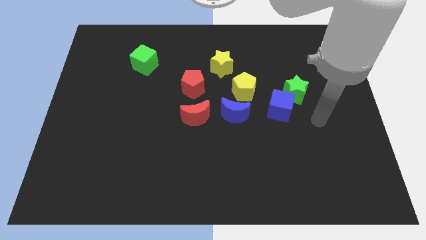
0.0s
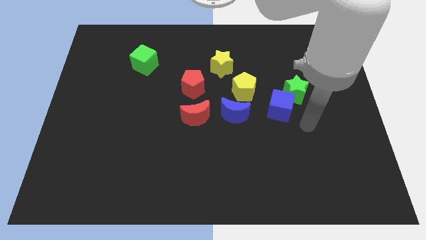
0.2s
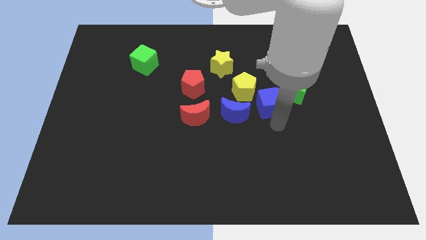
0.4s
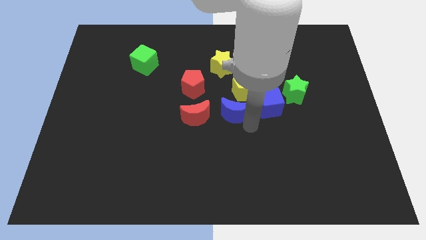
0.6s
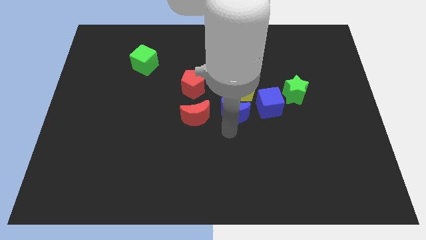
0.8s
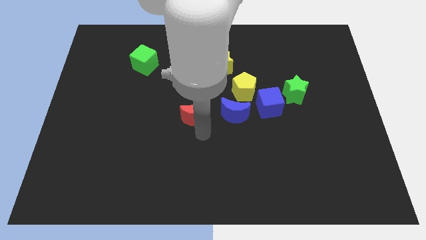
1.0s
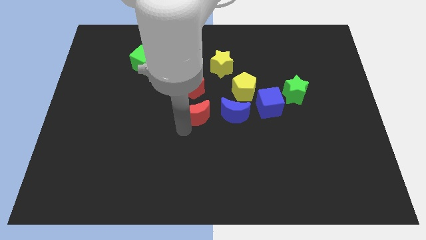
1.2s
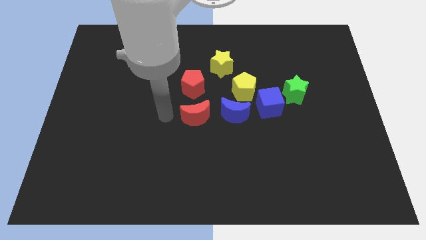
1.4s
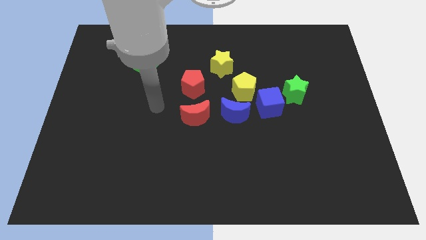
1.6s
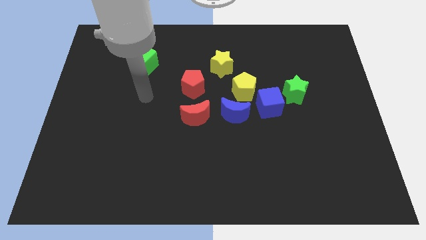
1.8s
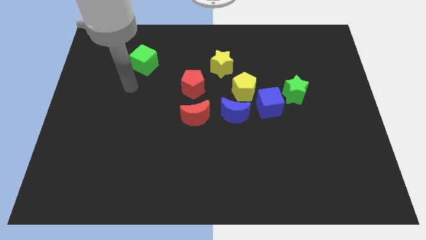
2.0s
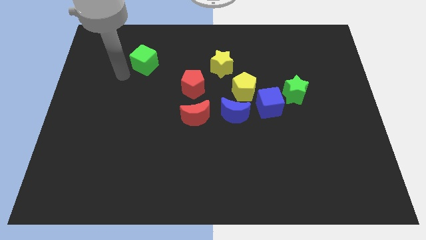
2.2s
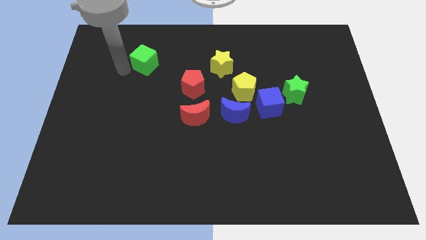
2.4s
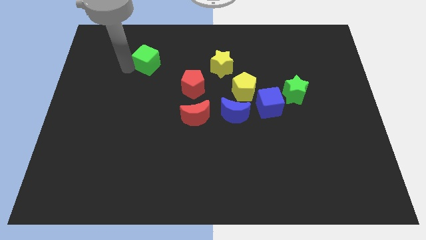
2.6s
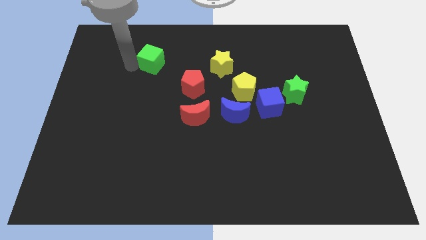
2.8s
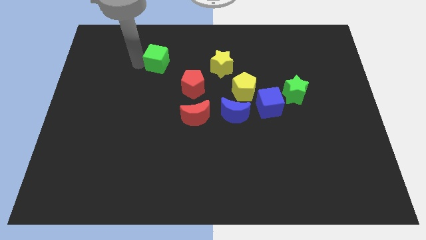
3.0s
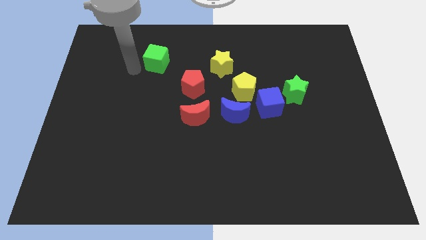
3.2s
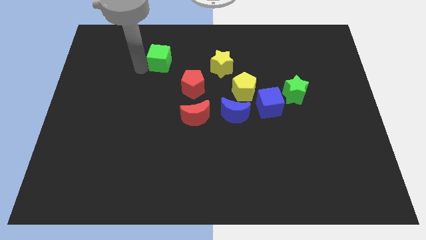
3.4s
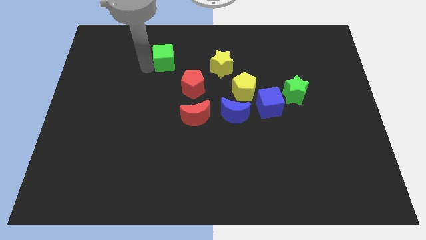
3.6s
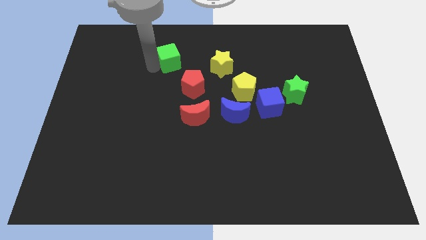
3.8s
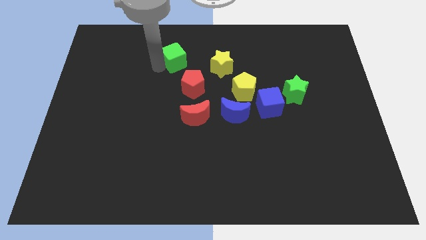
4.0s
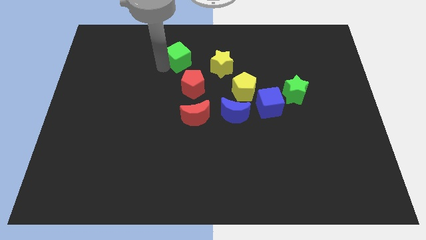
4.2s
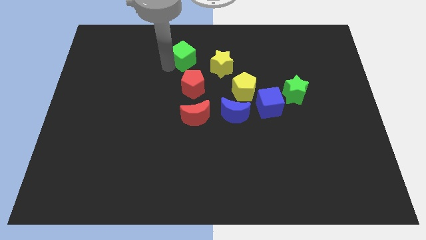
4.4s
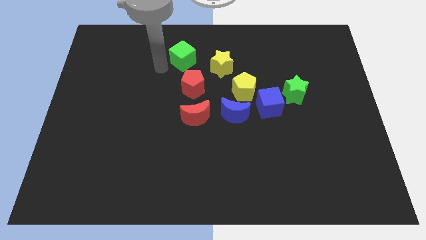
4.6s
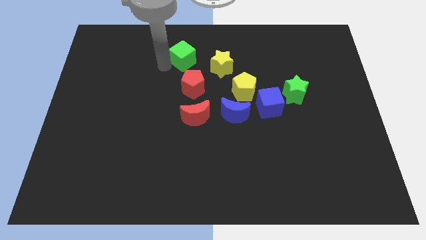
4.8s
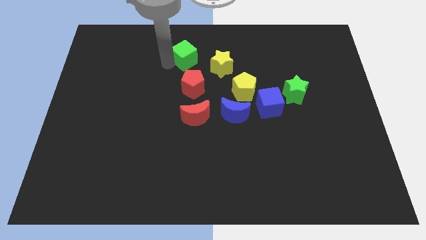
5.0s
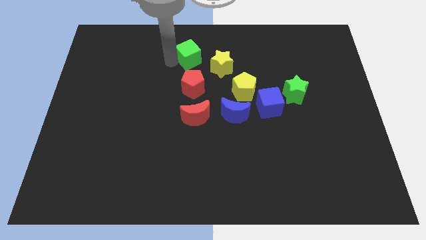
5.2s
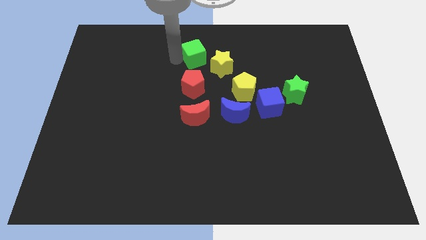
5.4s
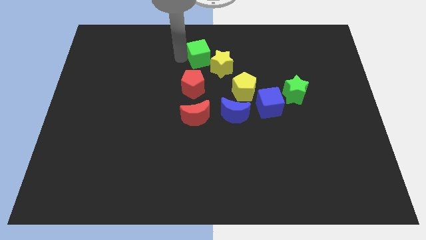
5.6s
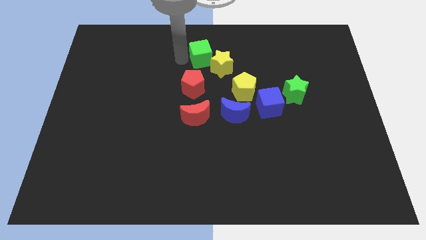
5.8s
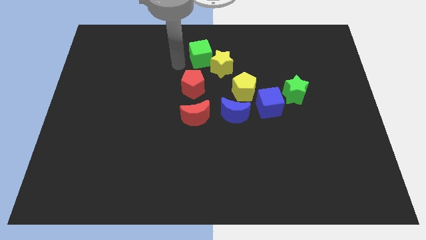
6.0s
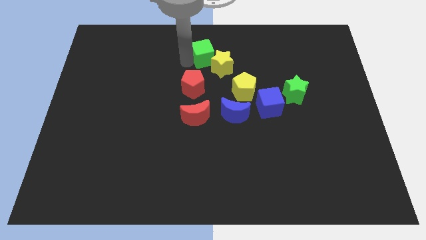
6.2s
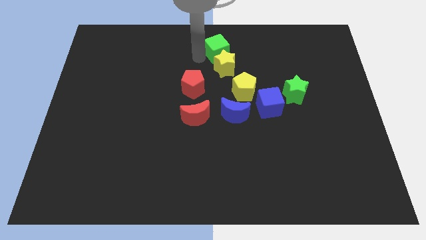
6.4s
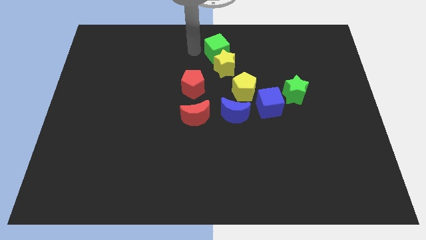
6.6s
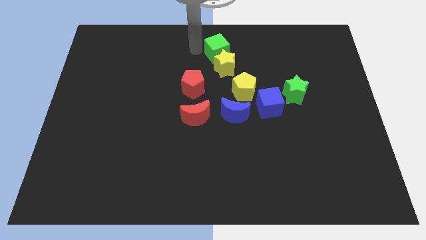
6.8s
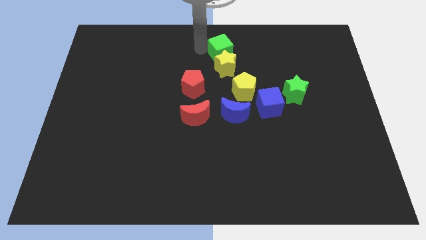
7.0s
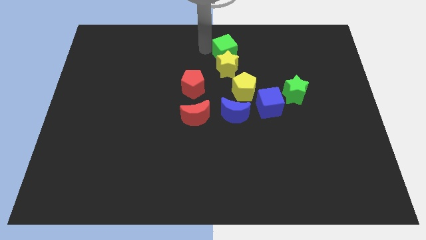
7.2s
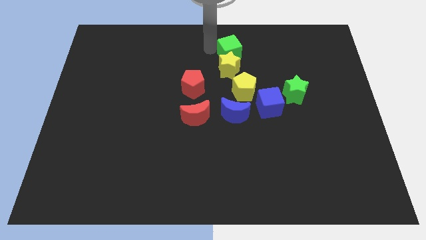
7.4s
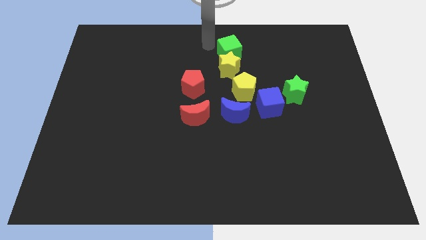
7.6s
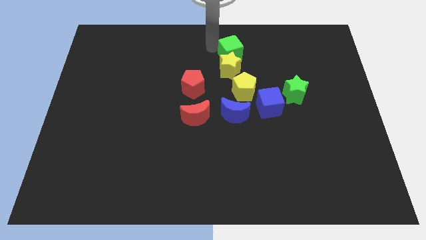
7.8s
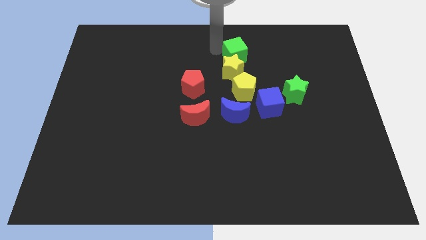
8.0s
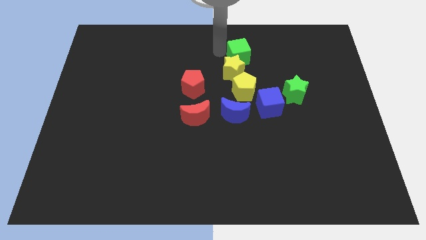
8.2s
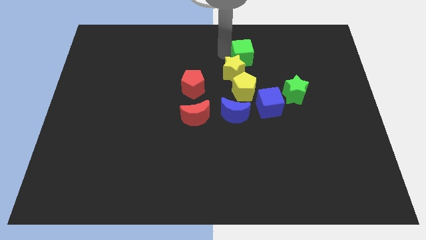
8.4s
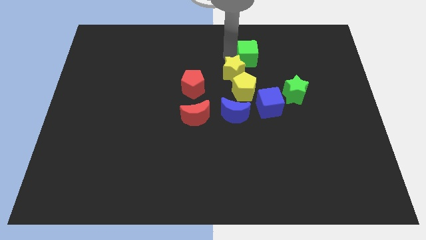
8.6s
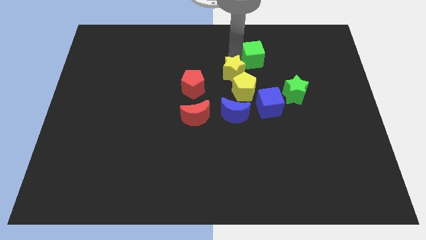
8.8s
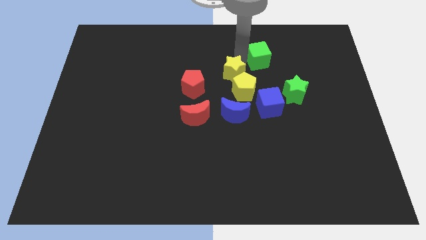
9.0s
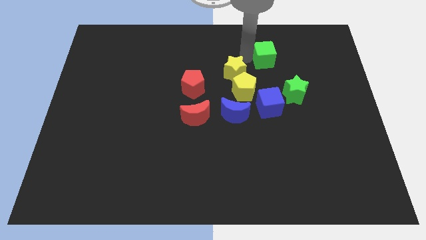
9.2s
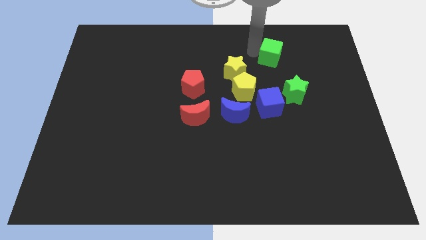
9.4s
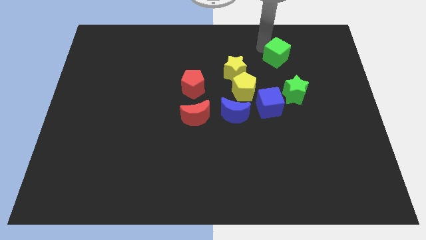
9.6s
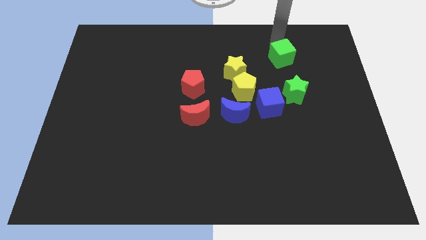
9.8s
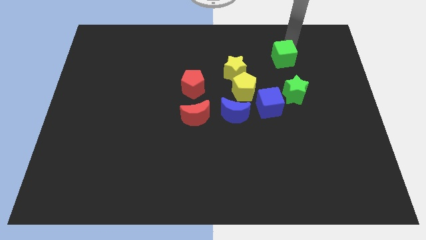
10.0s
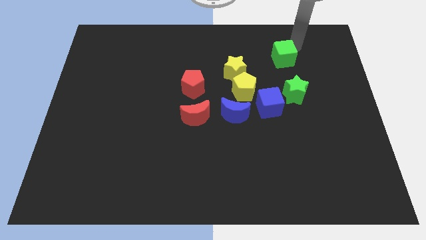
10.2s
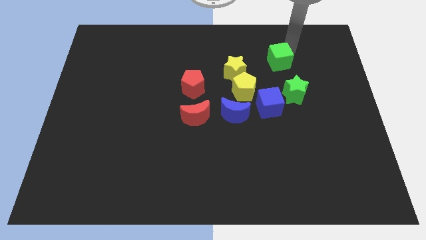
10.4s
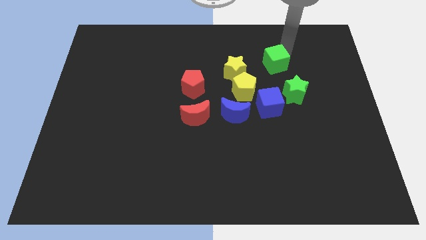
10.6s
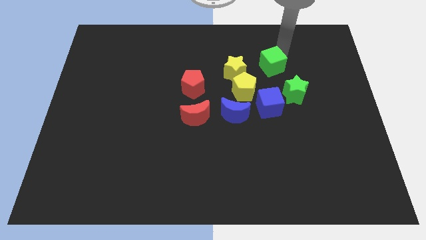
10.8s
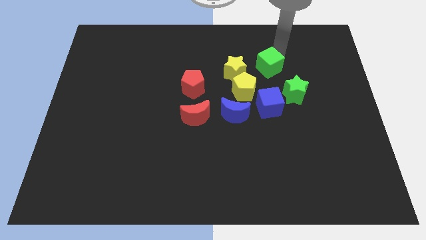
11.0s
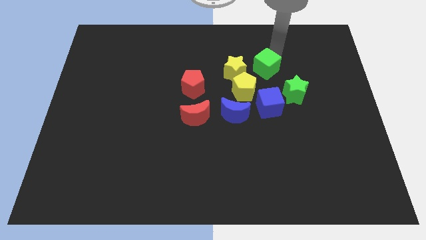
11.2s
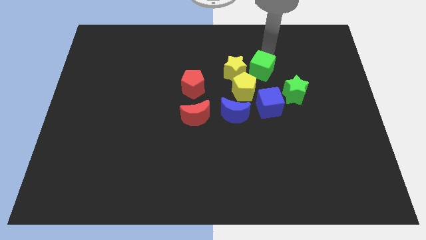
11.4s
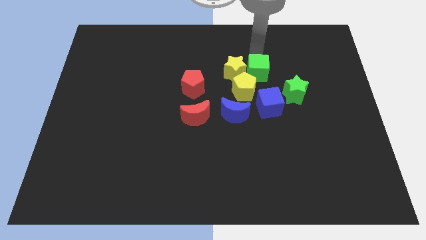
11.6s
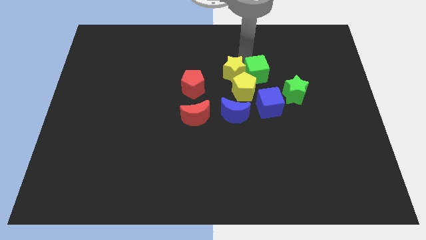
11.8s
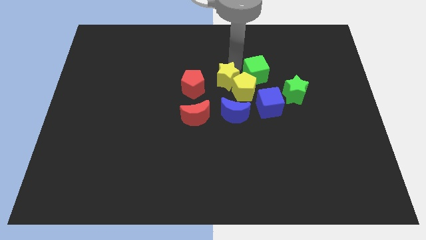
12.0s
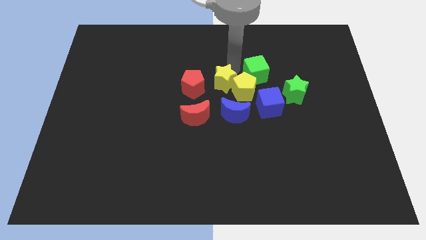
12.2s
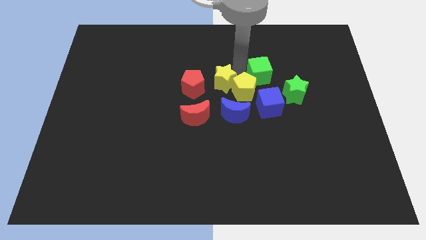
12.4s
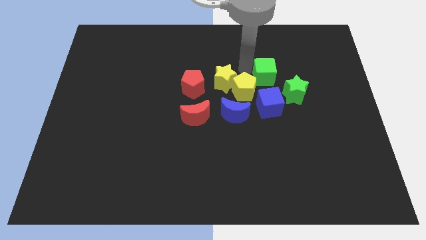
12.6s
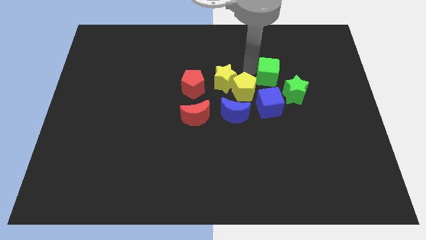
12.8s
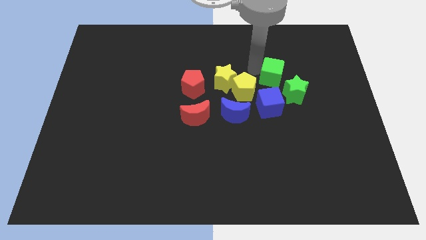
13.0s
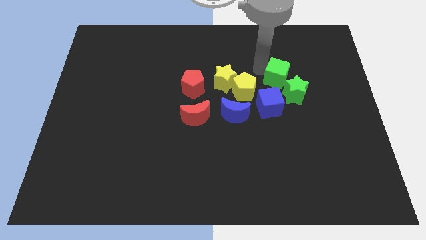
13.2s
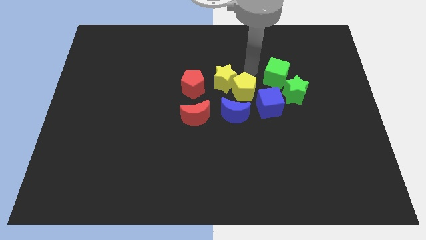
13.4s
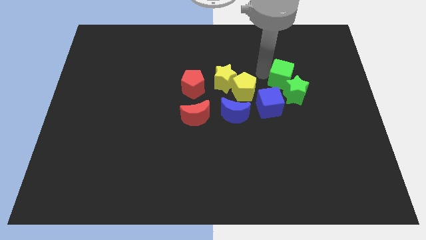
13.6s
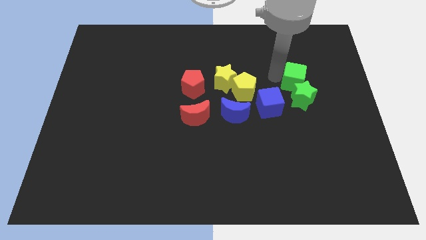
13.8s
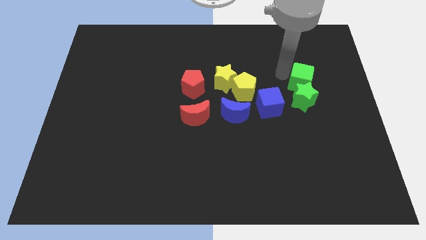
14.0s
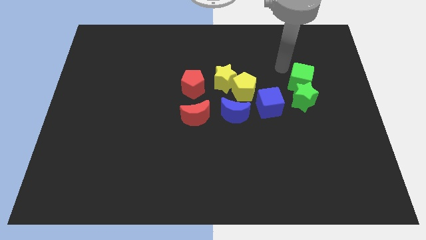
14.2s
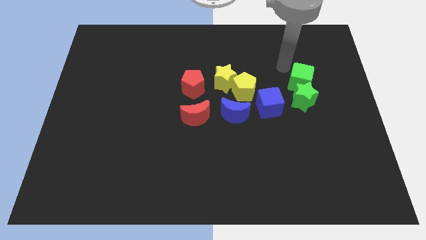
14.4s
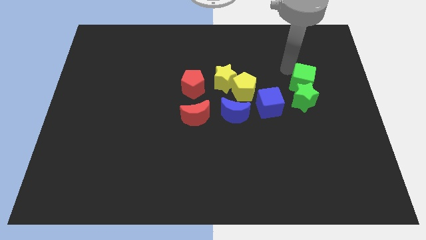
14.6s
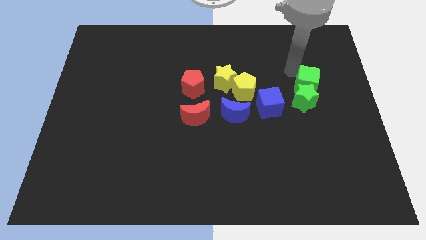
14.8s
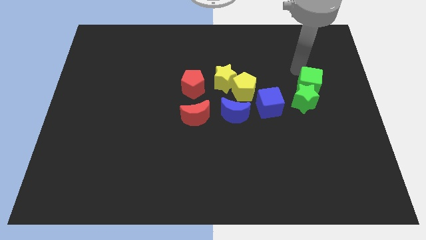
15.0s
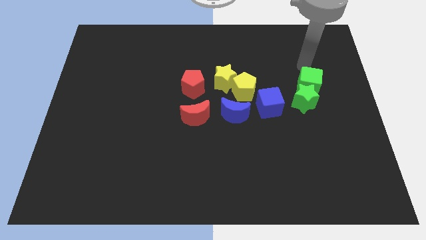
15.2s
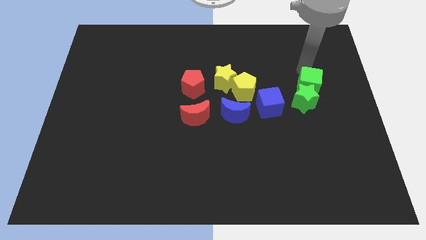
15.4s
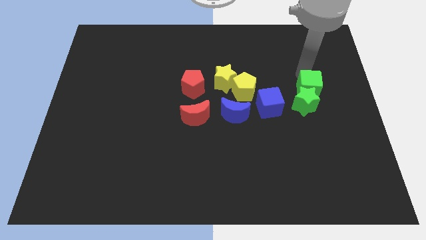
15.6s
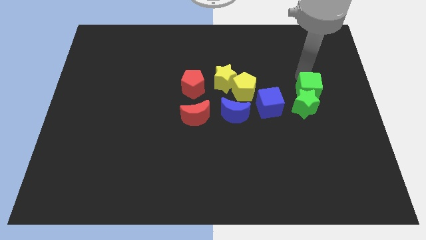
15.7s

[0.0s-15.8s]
push the green cube right of the blue cube
